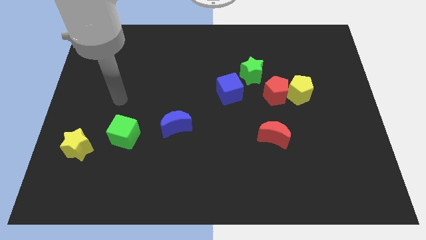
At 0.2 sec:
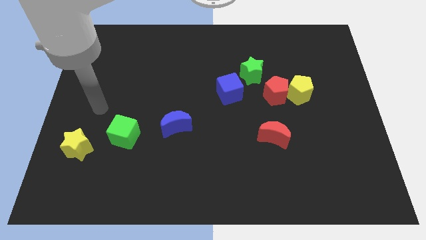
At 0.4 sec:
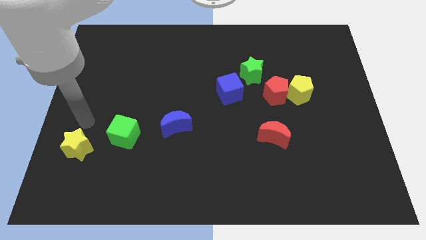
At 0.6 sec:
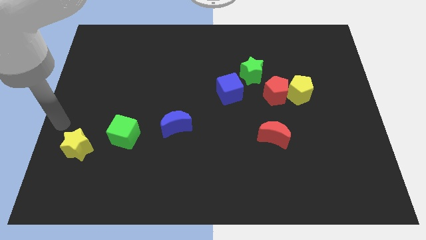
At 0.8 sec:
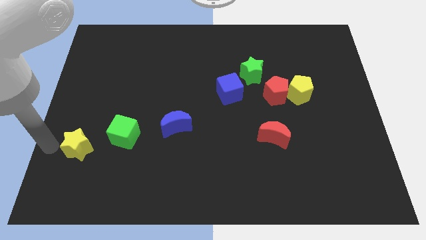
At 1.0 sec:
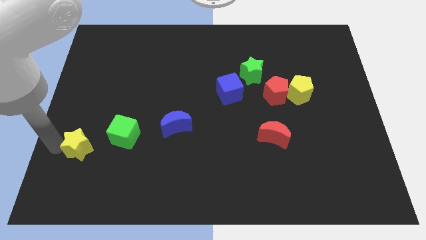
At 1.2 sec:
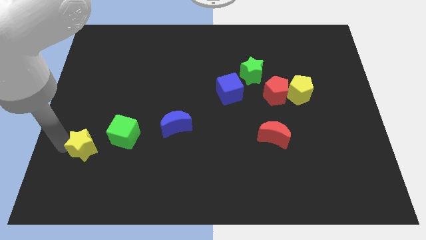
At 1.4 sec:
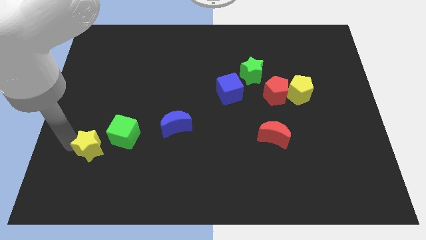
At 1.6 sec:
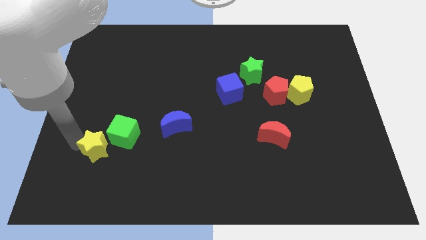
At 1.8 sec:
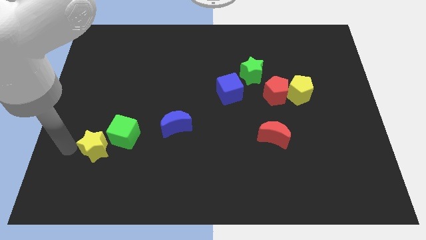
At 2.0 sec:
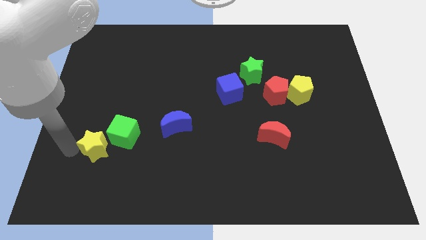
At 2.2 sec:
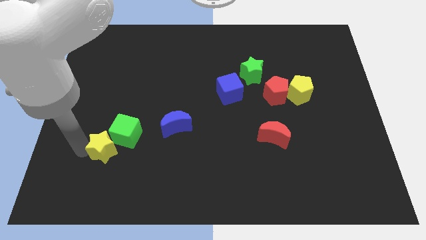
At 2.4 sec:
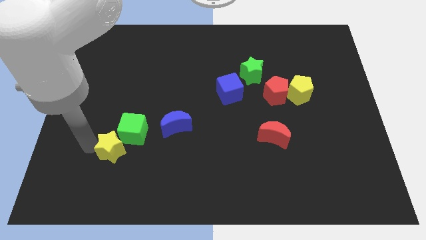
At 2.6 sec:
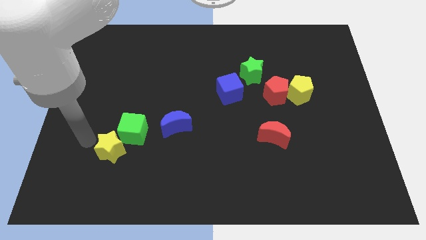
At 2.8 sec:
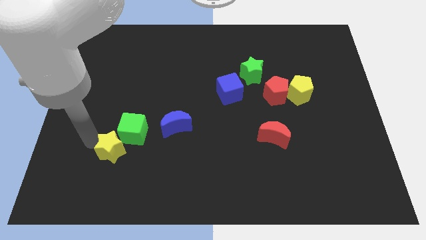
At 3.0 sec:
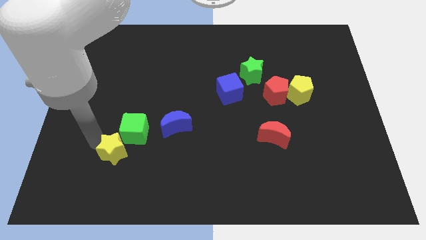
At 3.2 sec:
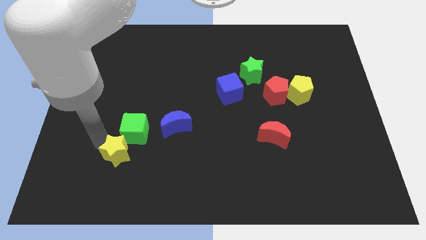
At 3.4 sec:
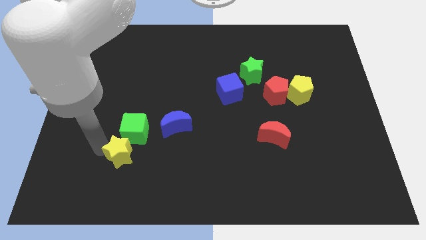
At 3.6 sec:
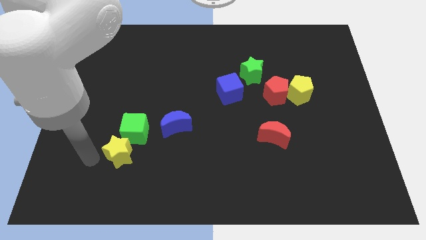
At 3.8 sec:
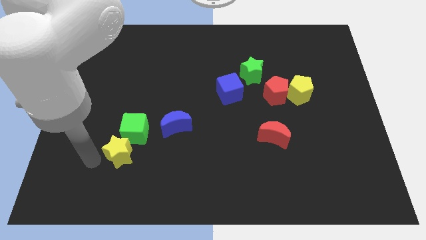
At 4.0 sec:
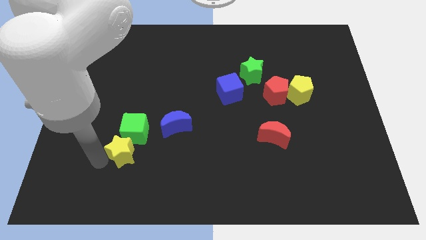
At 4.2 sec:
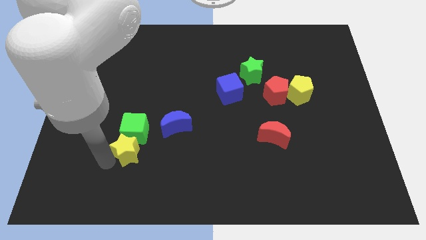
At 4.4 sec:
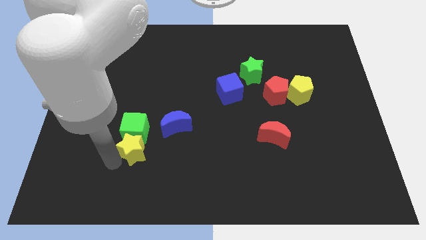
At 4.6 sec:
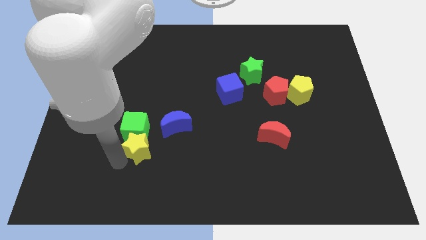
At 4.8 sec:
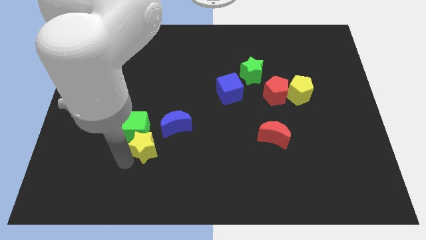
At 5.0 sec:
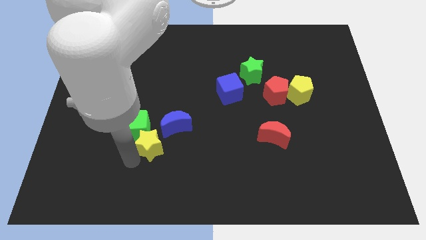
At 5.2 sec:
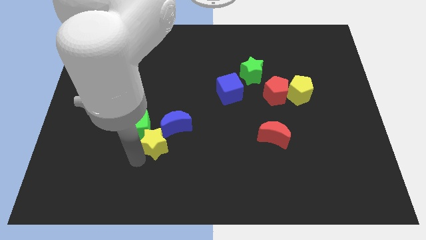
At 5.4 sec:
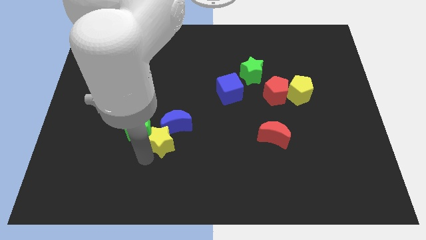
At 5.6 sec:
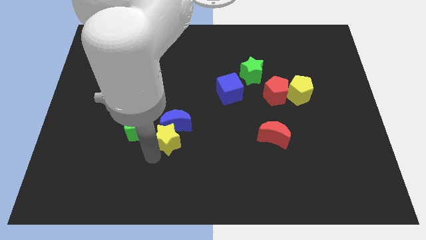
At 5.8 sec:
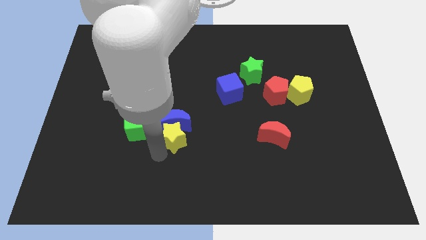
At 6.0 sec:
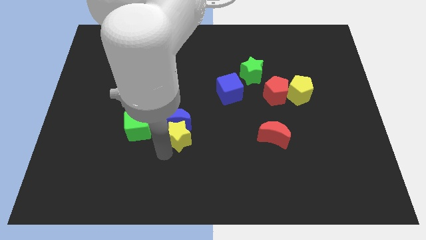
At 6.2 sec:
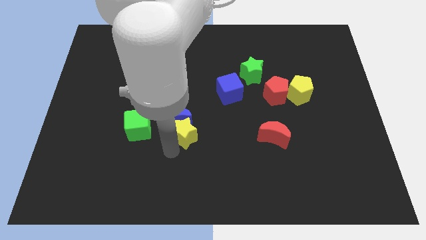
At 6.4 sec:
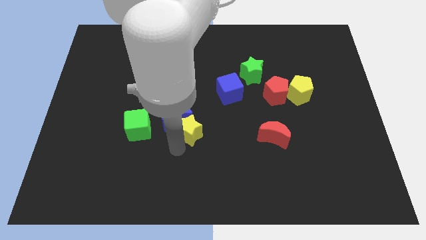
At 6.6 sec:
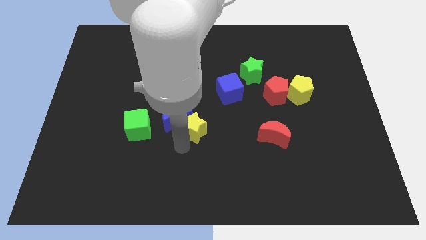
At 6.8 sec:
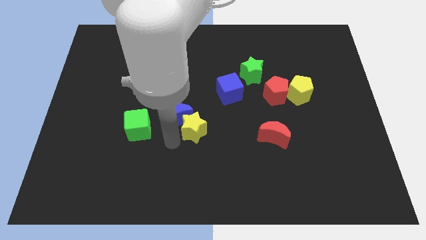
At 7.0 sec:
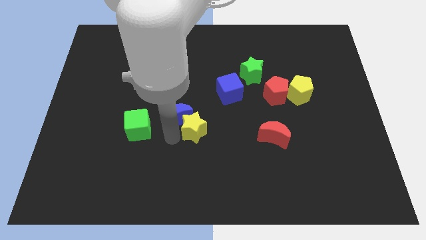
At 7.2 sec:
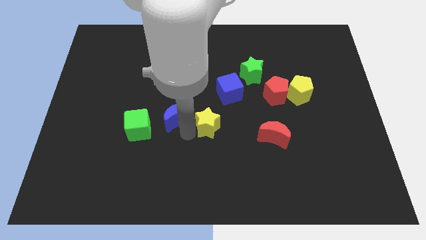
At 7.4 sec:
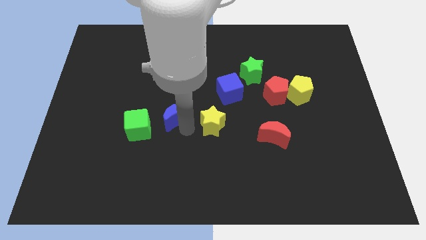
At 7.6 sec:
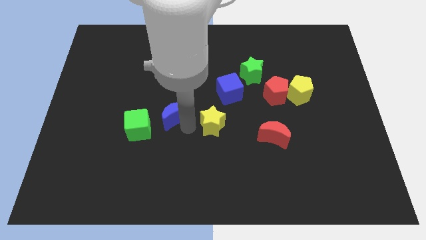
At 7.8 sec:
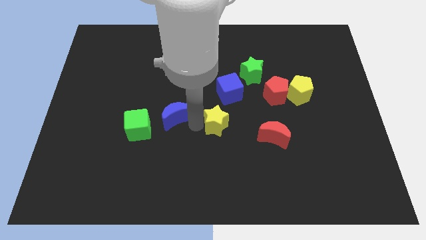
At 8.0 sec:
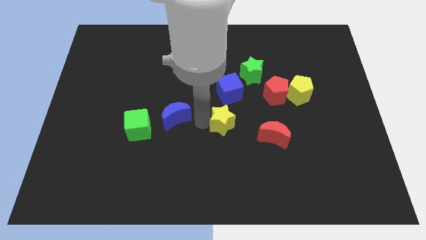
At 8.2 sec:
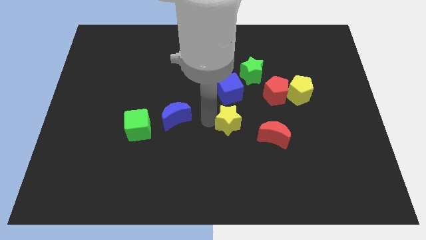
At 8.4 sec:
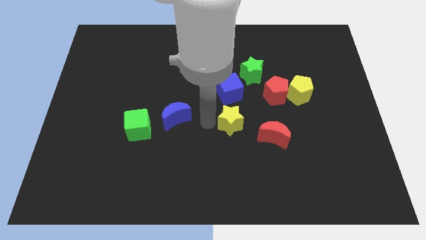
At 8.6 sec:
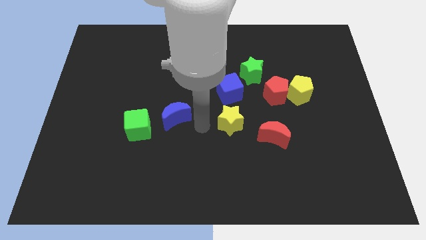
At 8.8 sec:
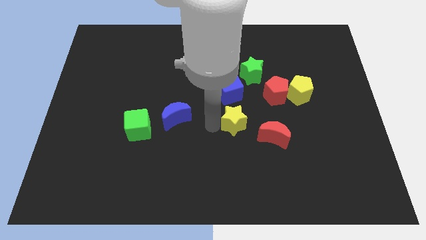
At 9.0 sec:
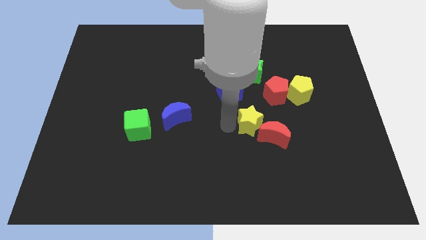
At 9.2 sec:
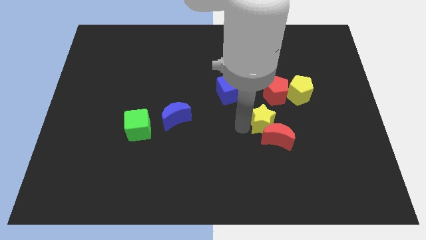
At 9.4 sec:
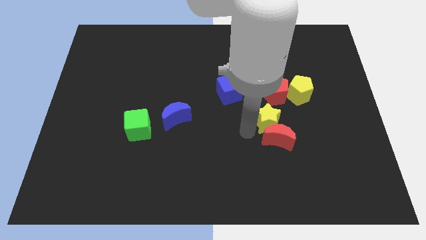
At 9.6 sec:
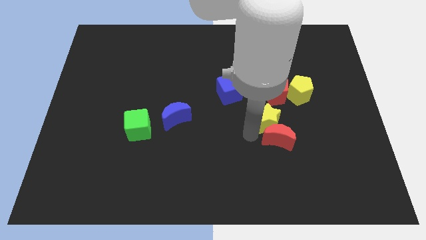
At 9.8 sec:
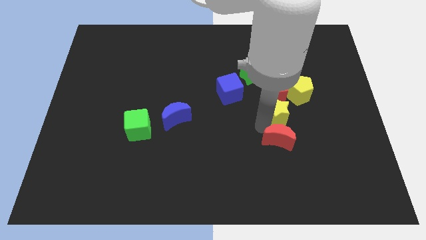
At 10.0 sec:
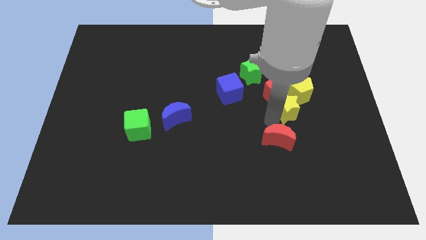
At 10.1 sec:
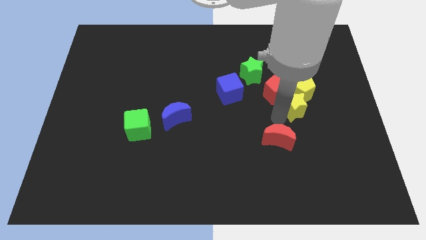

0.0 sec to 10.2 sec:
move the yellow star to the yellow pentagon

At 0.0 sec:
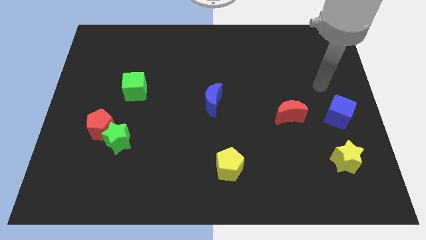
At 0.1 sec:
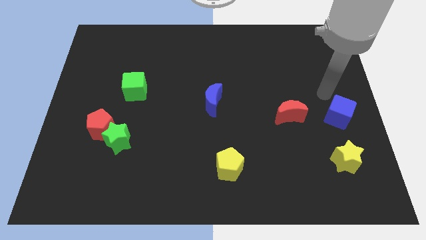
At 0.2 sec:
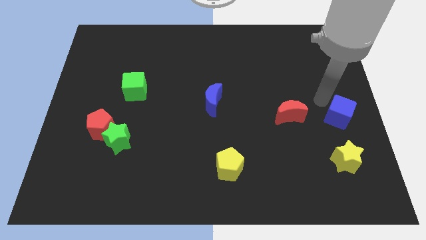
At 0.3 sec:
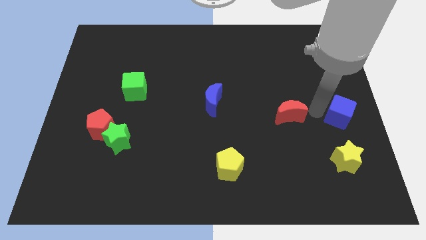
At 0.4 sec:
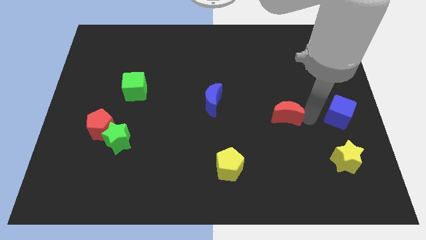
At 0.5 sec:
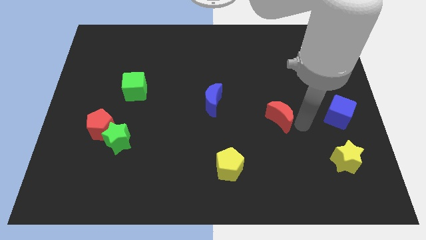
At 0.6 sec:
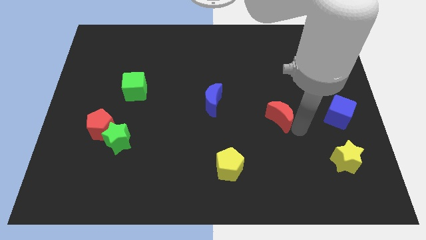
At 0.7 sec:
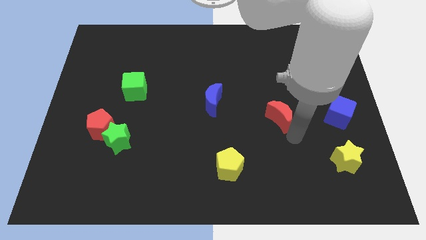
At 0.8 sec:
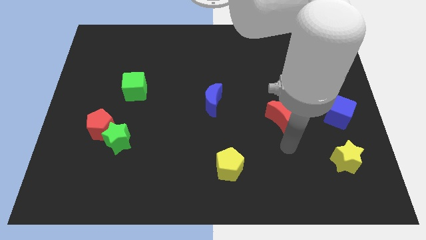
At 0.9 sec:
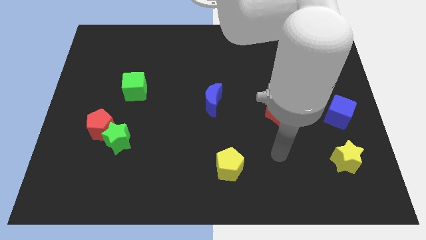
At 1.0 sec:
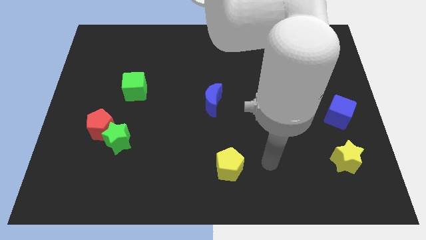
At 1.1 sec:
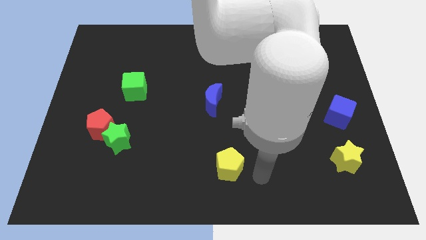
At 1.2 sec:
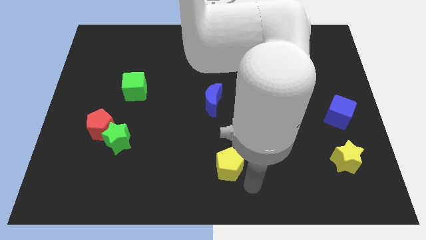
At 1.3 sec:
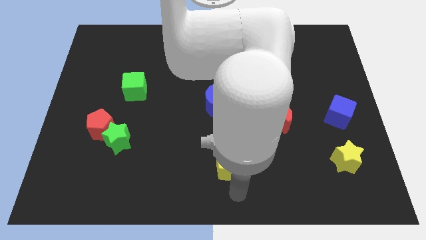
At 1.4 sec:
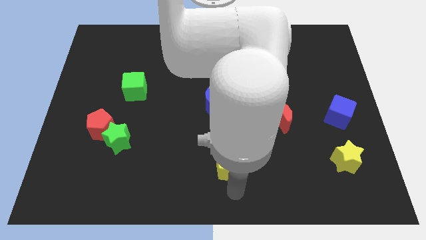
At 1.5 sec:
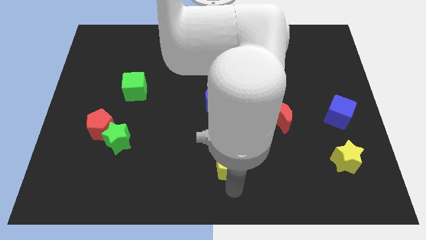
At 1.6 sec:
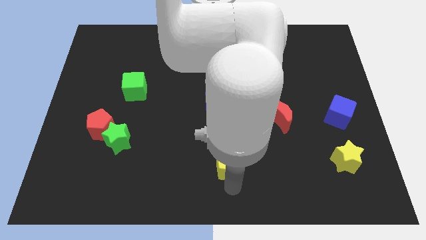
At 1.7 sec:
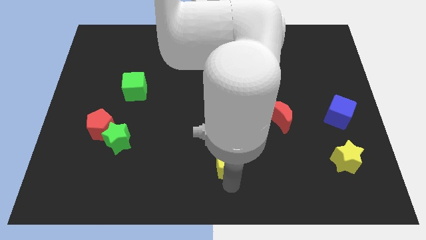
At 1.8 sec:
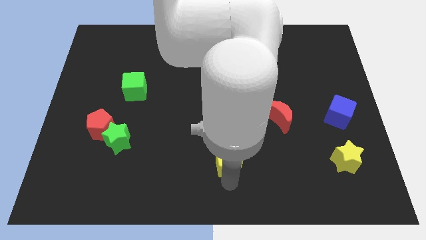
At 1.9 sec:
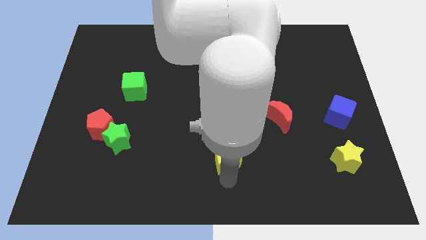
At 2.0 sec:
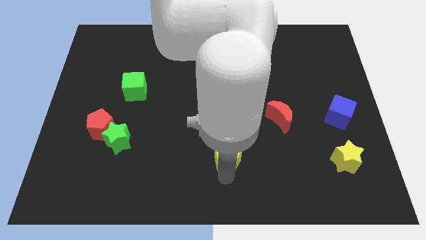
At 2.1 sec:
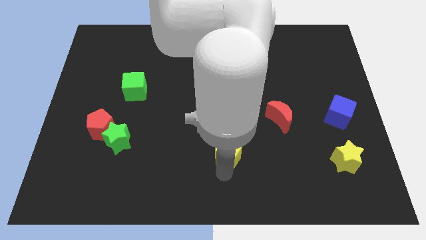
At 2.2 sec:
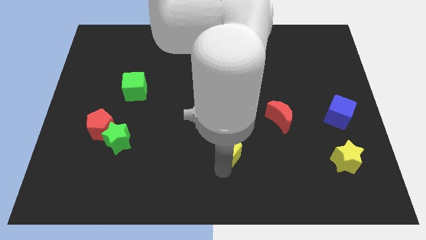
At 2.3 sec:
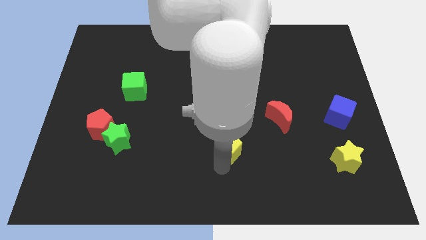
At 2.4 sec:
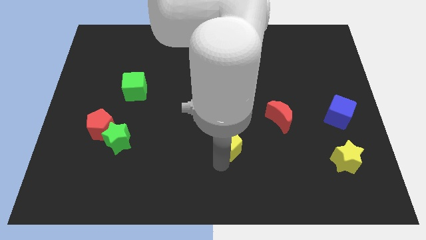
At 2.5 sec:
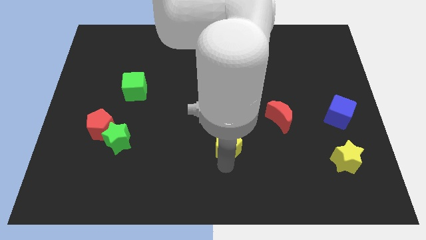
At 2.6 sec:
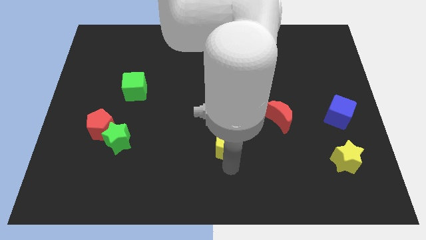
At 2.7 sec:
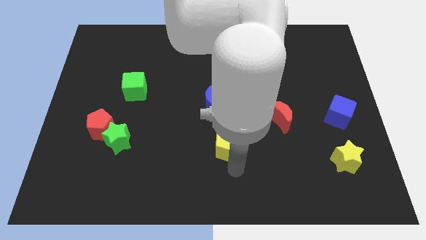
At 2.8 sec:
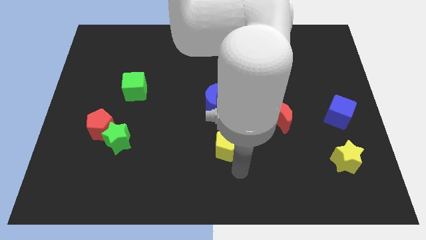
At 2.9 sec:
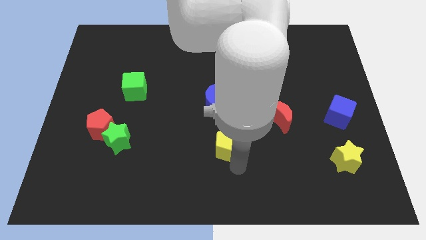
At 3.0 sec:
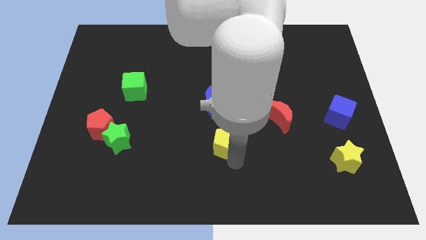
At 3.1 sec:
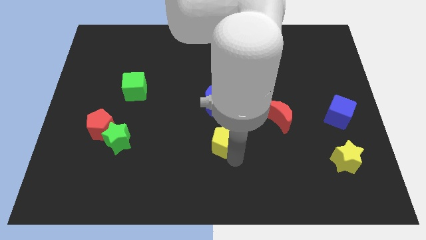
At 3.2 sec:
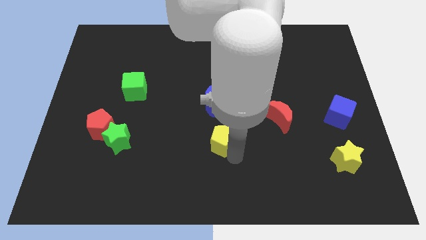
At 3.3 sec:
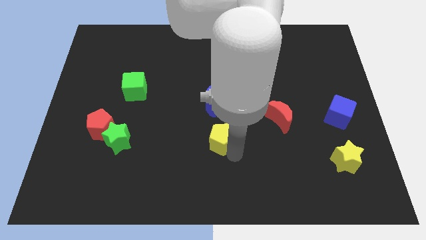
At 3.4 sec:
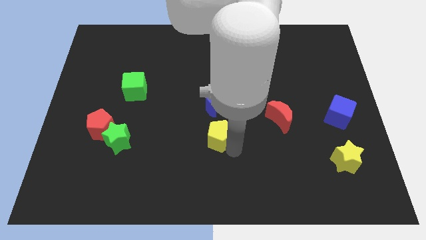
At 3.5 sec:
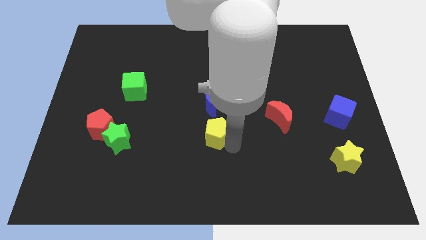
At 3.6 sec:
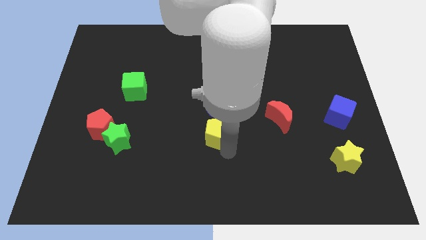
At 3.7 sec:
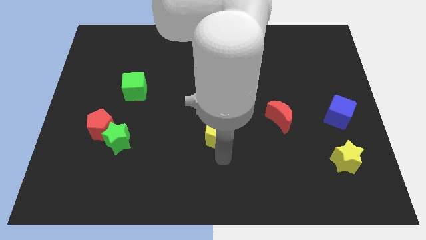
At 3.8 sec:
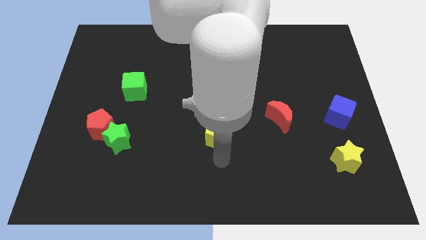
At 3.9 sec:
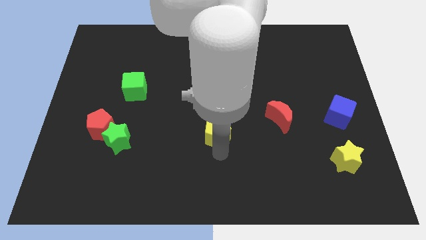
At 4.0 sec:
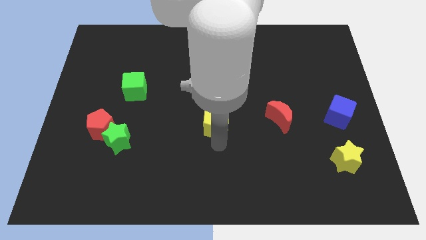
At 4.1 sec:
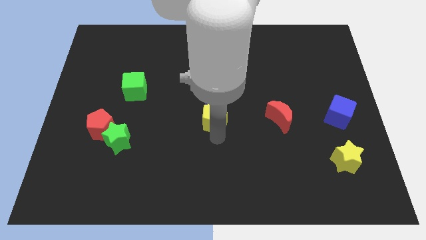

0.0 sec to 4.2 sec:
put the yellow pentagon towards the blue moon
